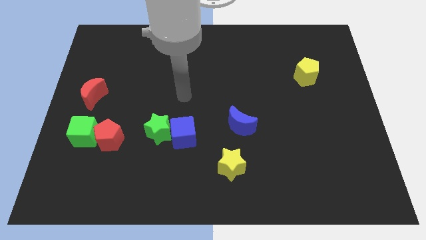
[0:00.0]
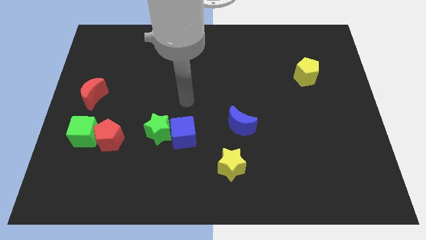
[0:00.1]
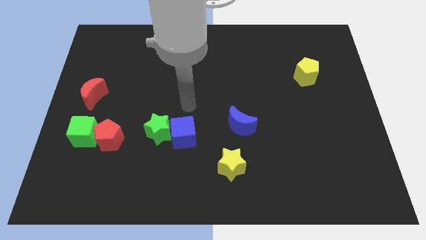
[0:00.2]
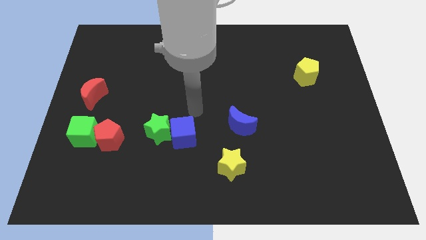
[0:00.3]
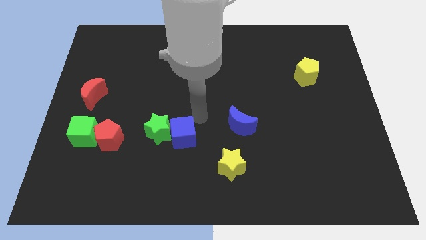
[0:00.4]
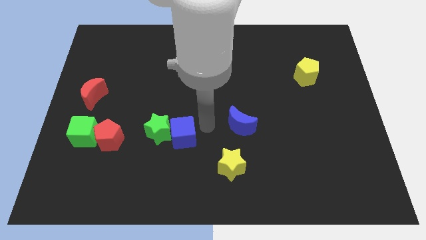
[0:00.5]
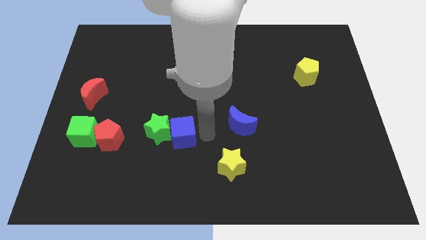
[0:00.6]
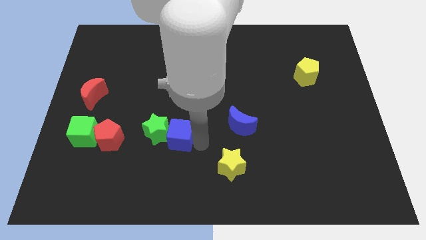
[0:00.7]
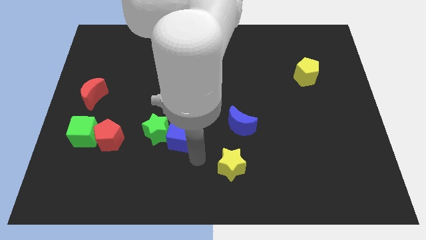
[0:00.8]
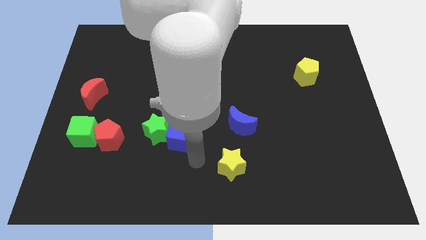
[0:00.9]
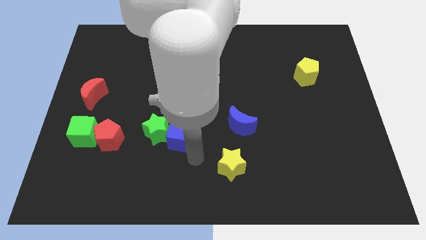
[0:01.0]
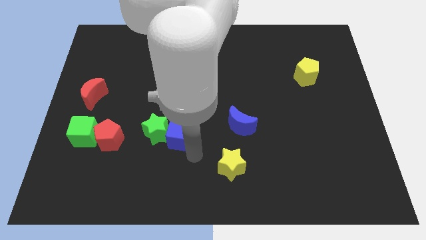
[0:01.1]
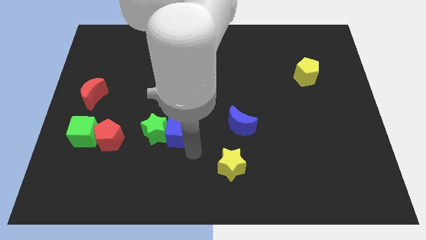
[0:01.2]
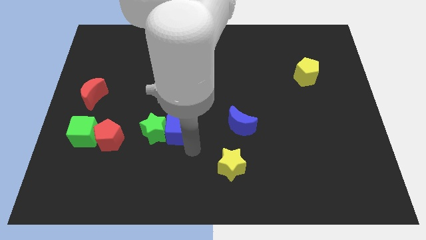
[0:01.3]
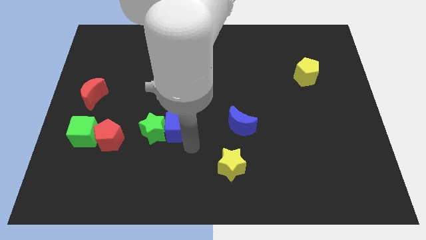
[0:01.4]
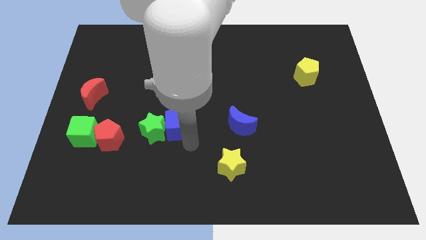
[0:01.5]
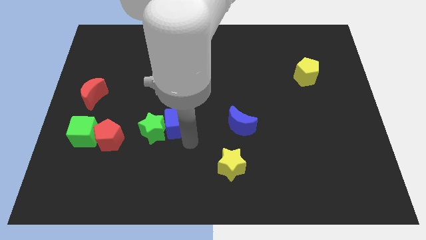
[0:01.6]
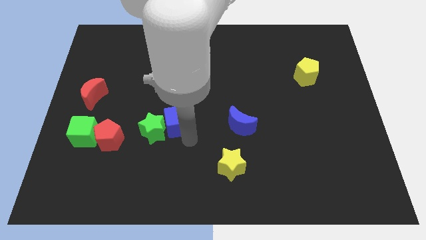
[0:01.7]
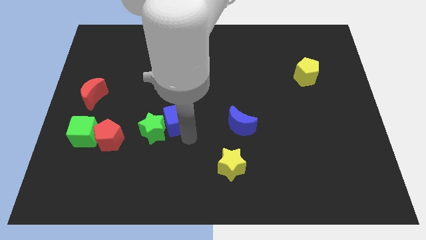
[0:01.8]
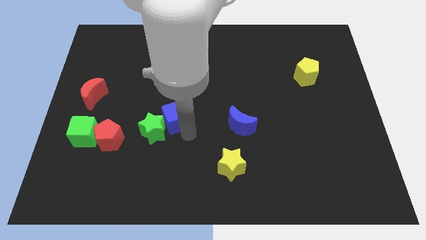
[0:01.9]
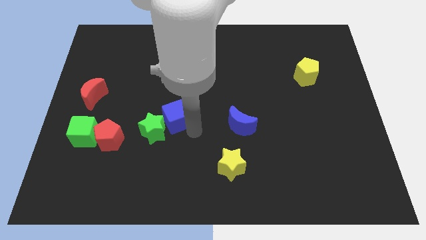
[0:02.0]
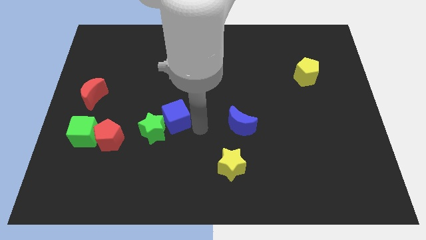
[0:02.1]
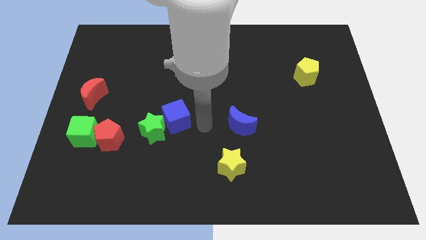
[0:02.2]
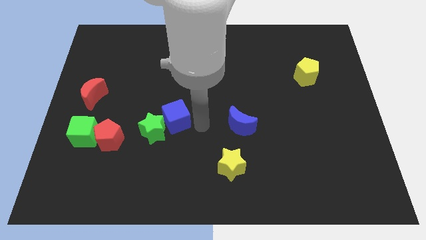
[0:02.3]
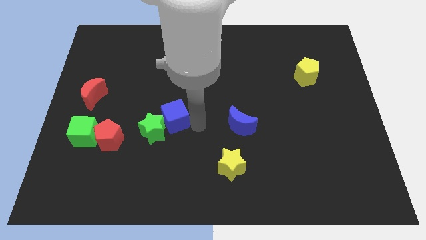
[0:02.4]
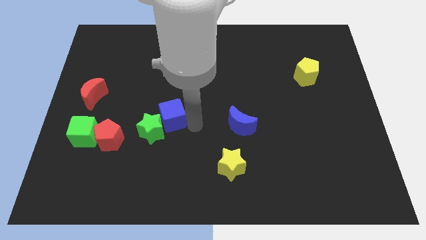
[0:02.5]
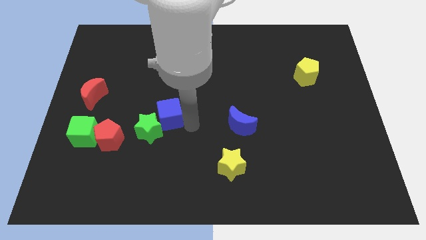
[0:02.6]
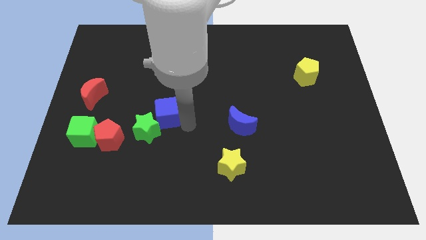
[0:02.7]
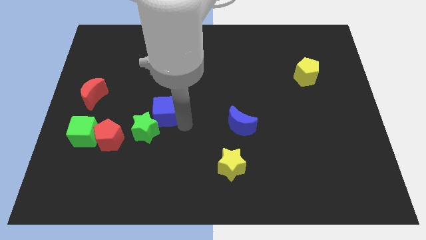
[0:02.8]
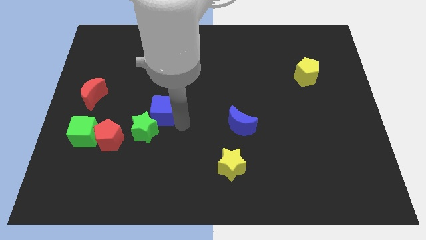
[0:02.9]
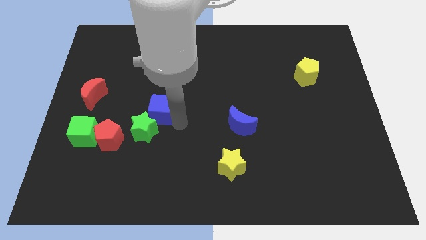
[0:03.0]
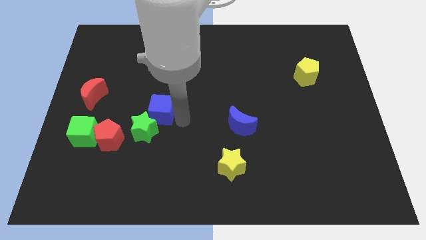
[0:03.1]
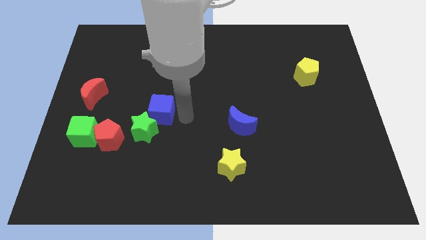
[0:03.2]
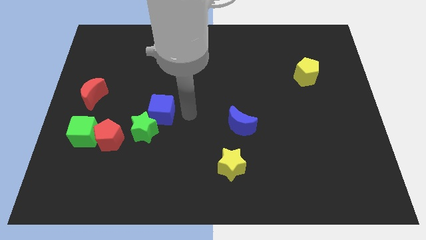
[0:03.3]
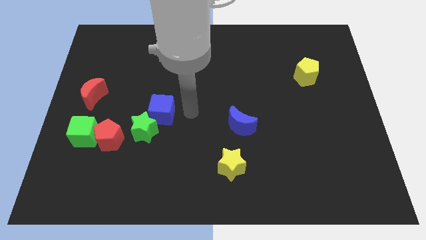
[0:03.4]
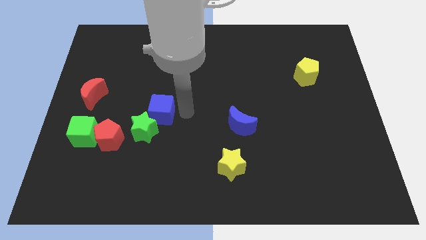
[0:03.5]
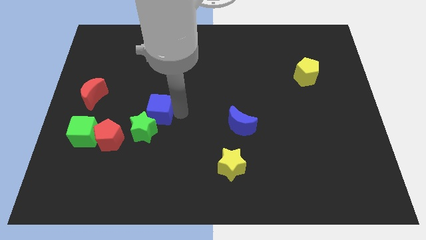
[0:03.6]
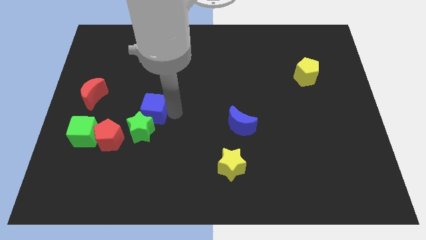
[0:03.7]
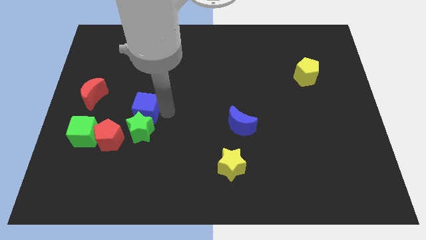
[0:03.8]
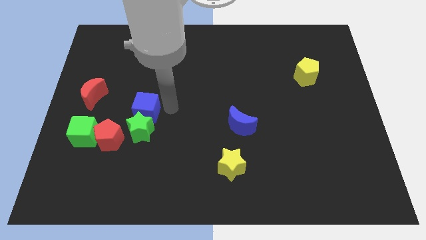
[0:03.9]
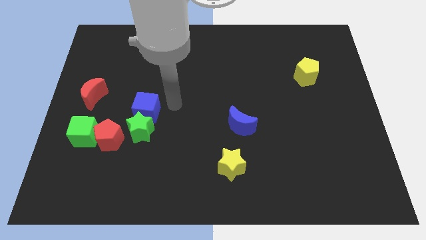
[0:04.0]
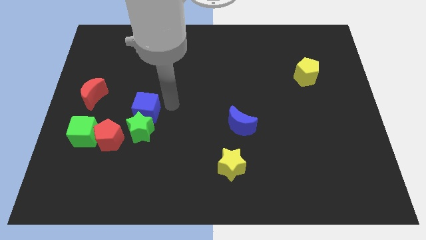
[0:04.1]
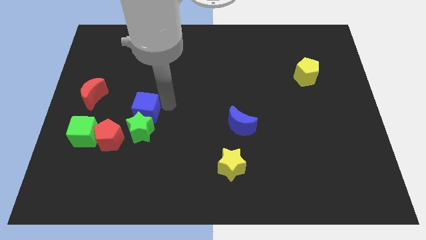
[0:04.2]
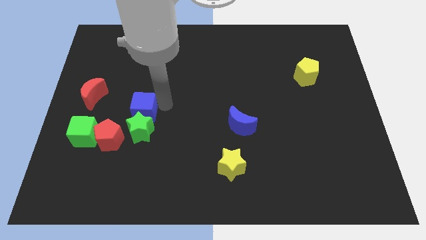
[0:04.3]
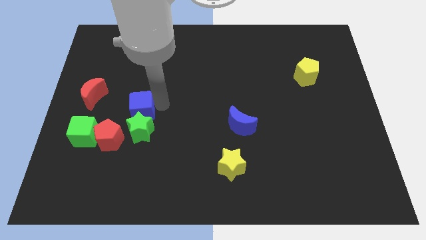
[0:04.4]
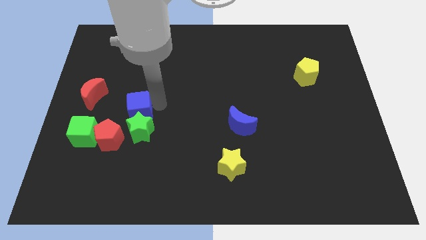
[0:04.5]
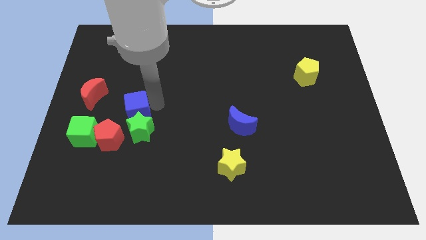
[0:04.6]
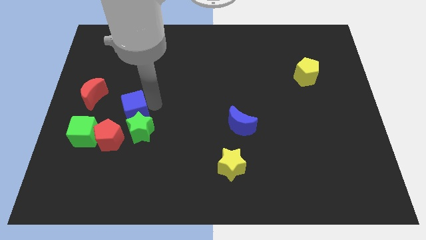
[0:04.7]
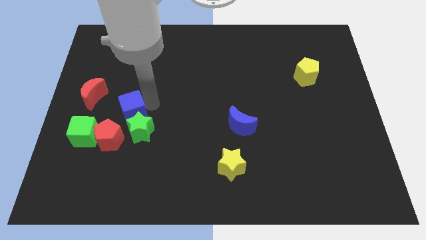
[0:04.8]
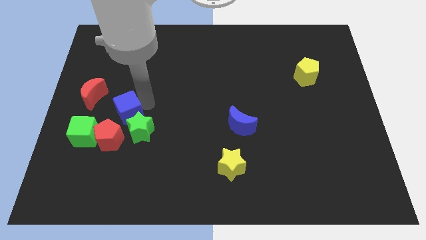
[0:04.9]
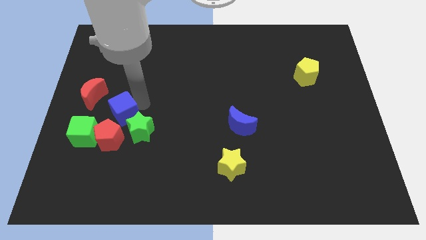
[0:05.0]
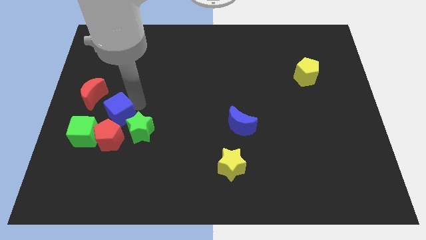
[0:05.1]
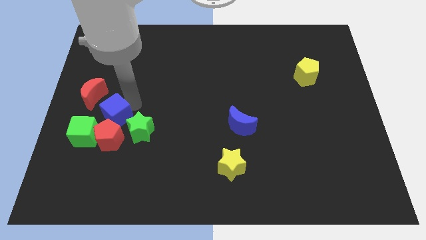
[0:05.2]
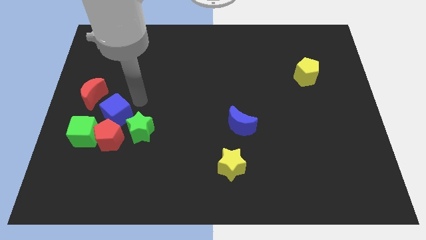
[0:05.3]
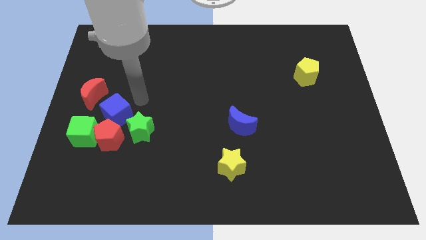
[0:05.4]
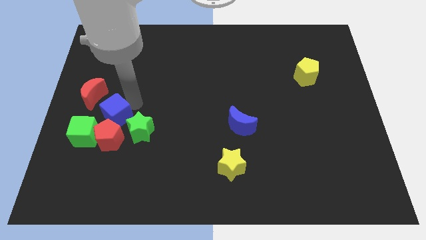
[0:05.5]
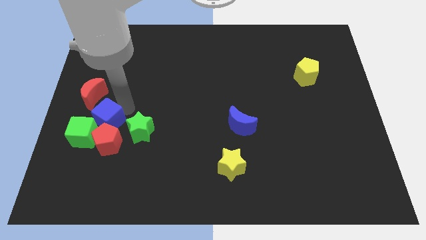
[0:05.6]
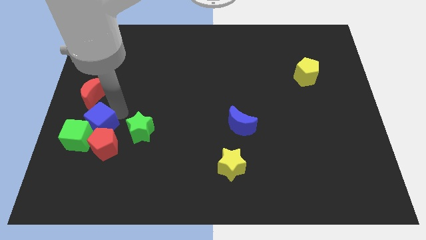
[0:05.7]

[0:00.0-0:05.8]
move the blue cube close to the green cube

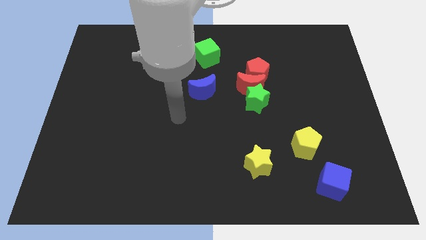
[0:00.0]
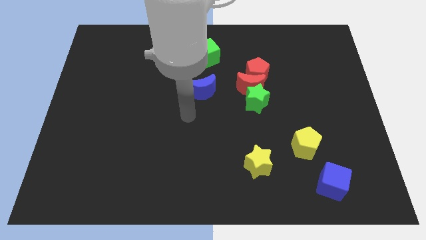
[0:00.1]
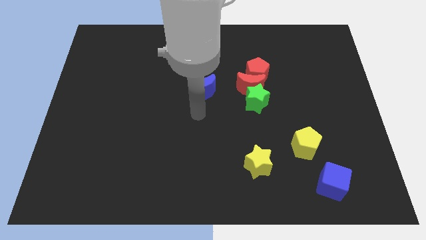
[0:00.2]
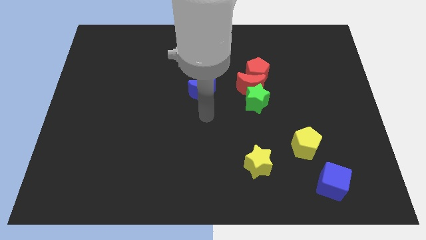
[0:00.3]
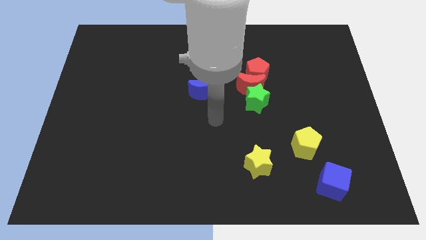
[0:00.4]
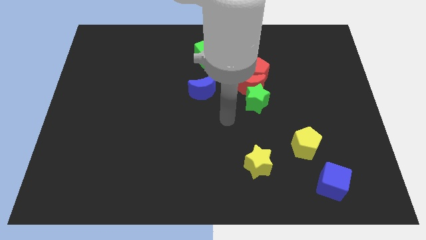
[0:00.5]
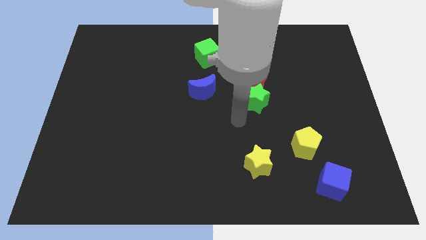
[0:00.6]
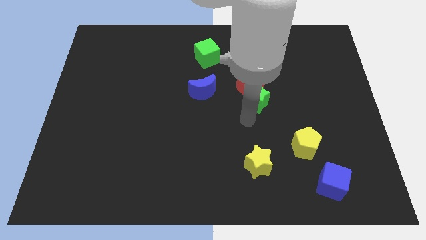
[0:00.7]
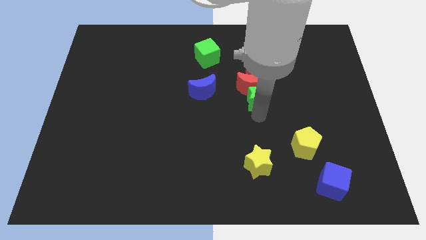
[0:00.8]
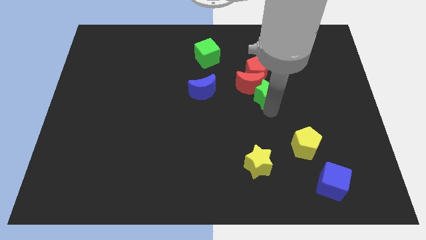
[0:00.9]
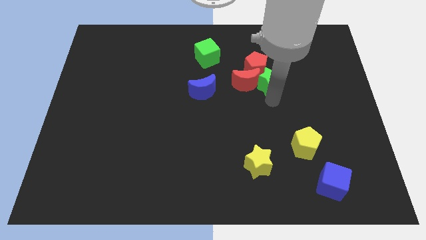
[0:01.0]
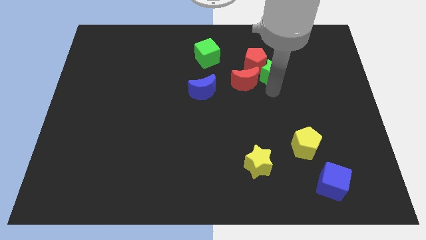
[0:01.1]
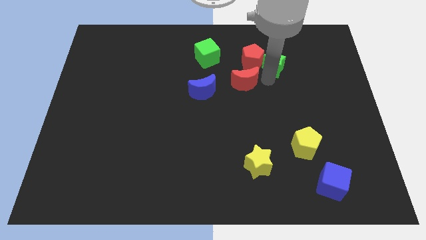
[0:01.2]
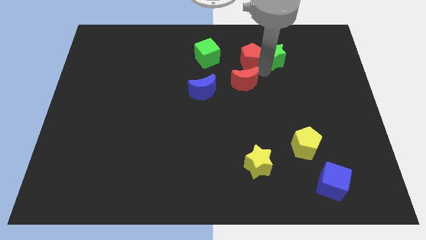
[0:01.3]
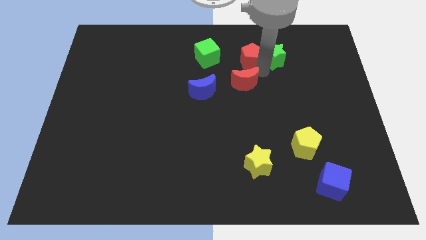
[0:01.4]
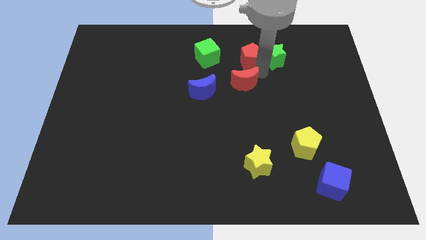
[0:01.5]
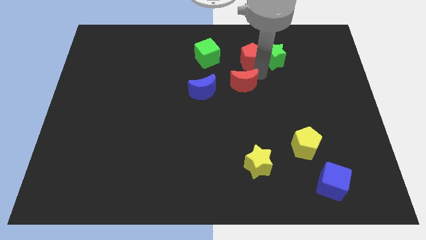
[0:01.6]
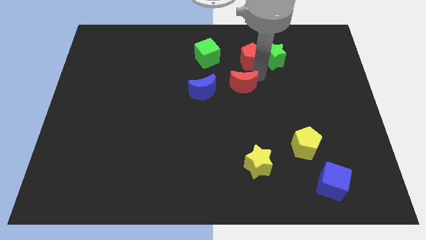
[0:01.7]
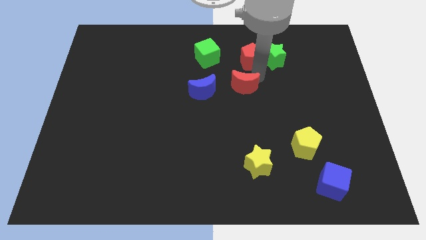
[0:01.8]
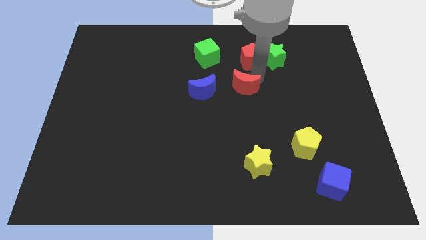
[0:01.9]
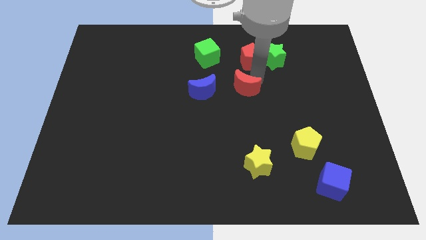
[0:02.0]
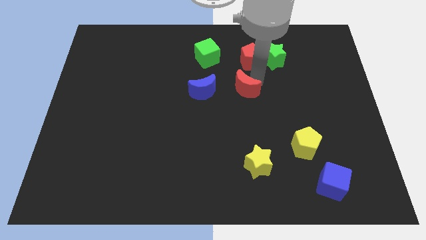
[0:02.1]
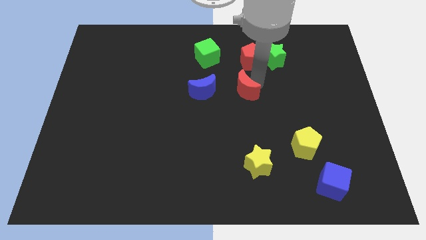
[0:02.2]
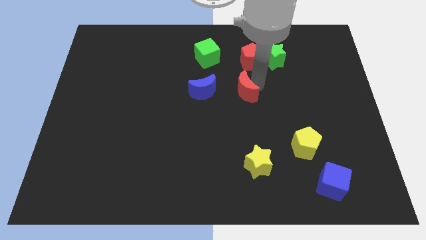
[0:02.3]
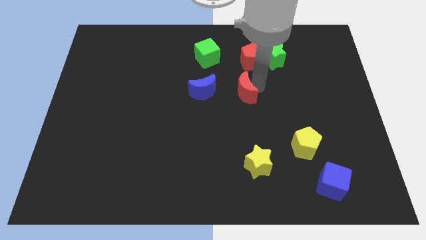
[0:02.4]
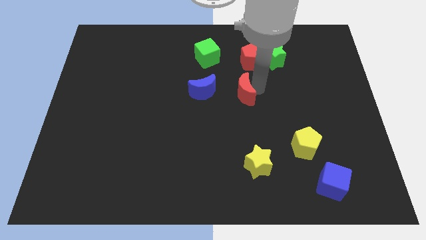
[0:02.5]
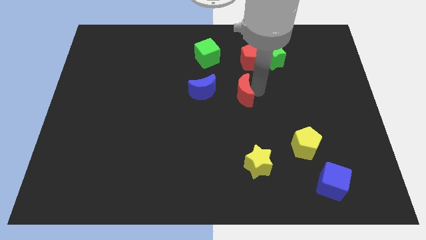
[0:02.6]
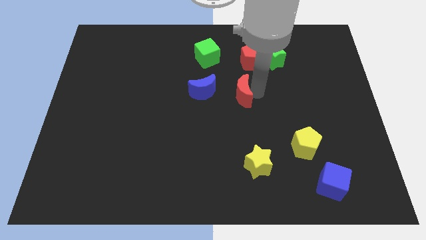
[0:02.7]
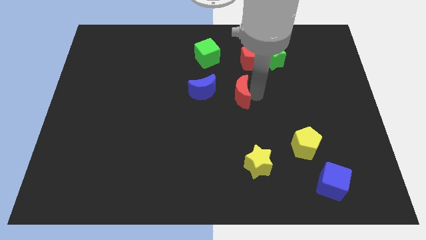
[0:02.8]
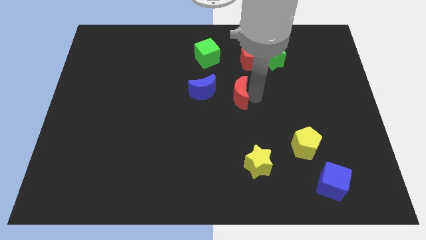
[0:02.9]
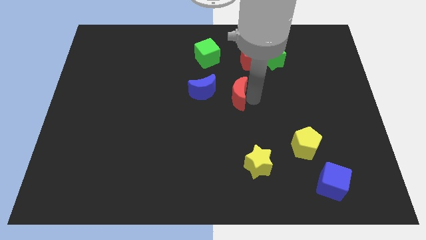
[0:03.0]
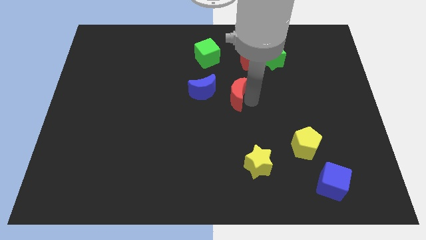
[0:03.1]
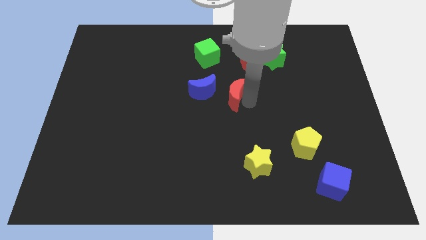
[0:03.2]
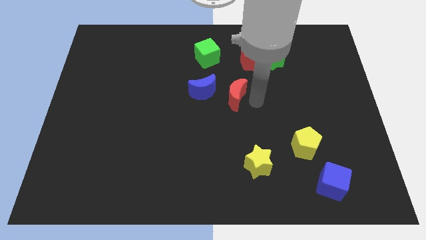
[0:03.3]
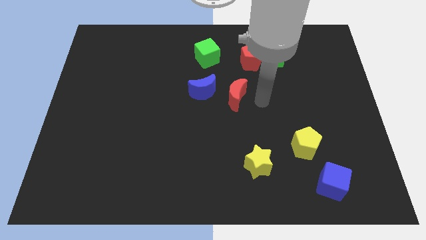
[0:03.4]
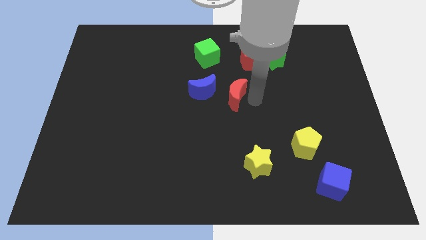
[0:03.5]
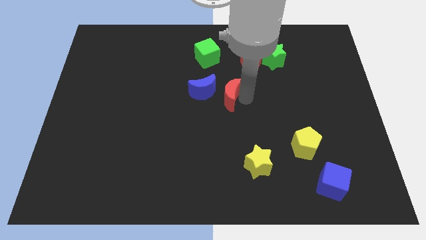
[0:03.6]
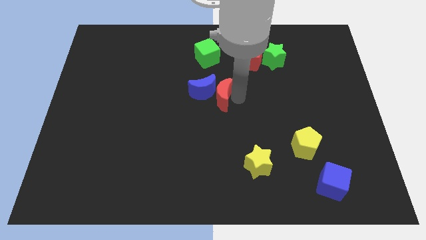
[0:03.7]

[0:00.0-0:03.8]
put the red moon next to the blue moon
